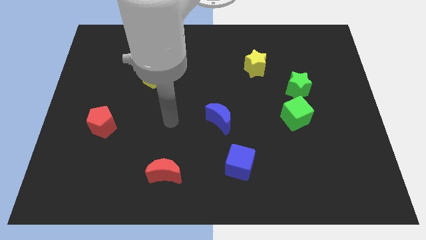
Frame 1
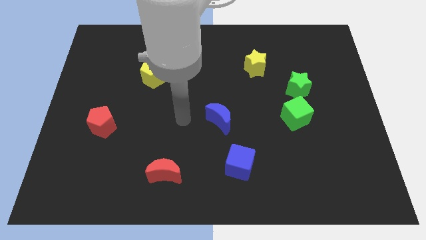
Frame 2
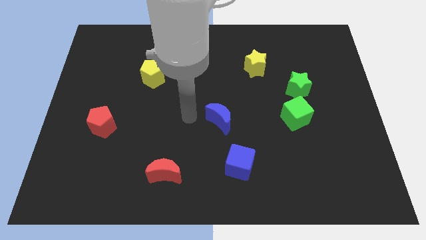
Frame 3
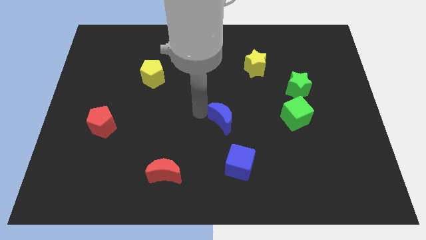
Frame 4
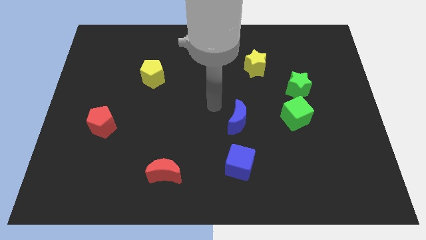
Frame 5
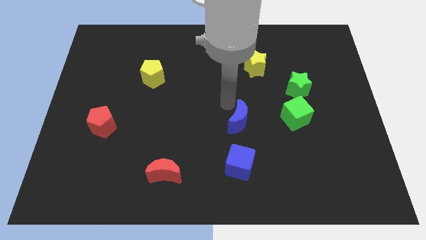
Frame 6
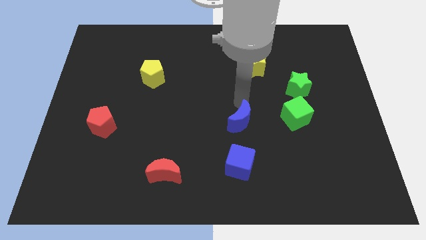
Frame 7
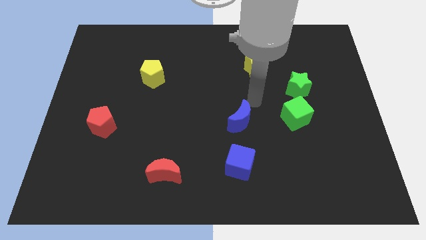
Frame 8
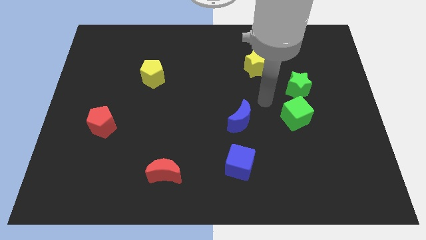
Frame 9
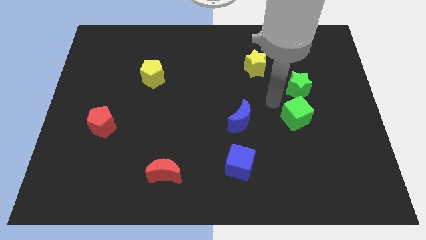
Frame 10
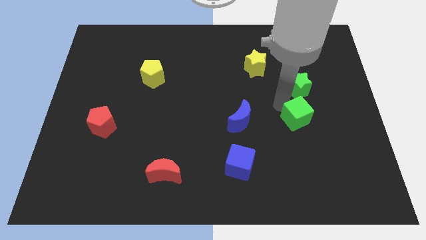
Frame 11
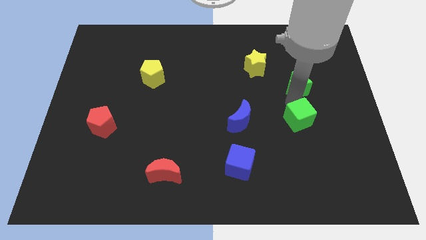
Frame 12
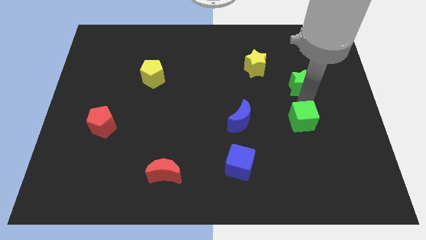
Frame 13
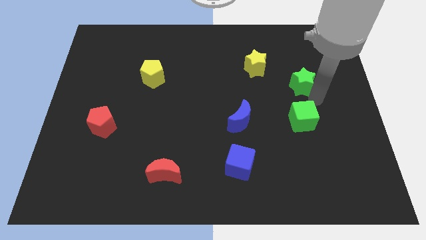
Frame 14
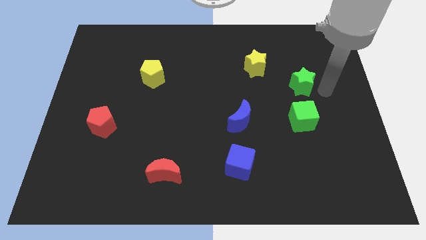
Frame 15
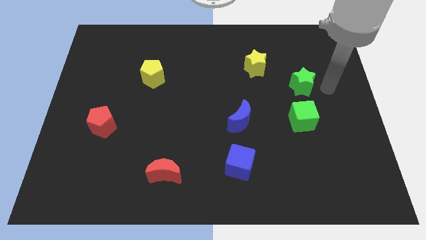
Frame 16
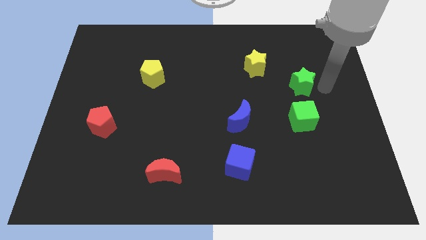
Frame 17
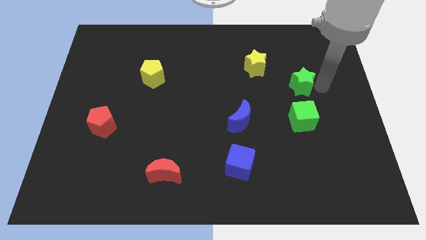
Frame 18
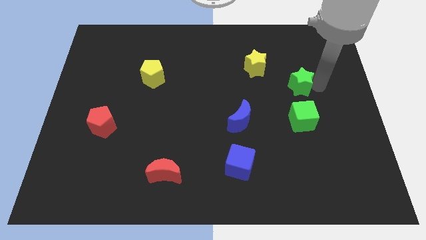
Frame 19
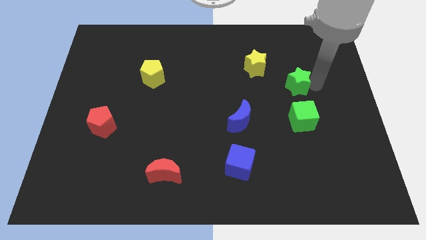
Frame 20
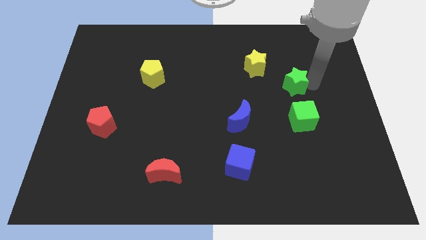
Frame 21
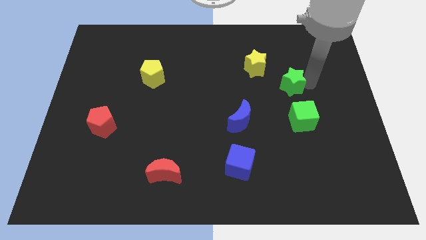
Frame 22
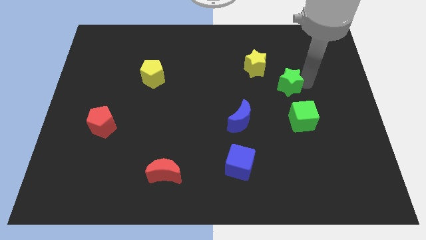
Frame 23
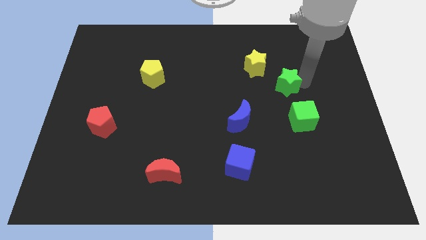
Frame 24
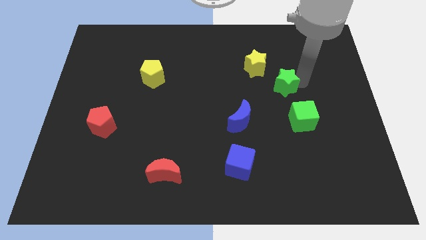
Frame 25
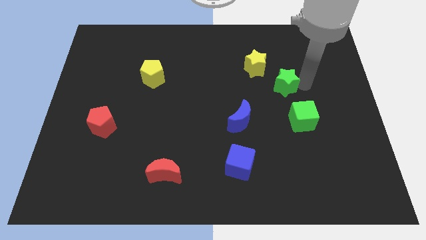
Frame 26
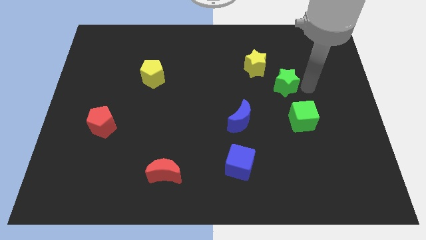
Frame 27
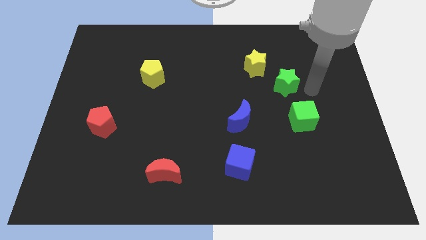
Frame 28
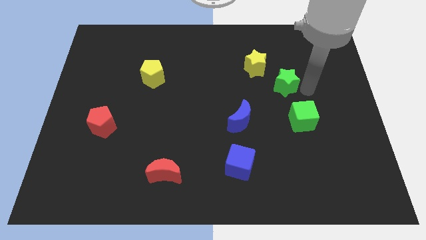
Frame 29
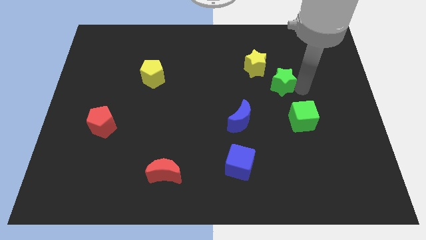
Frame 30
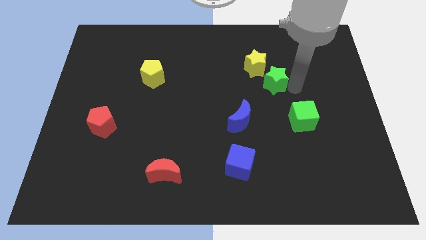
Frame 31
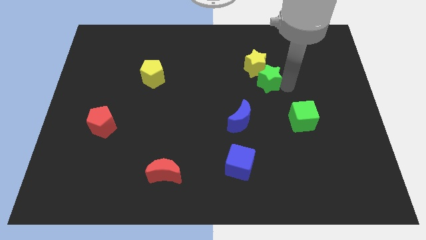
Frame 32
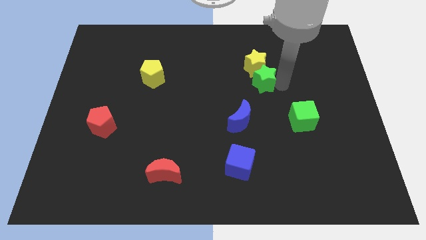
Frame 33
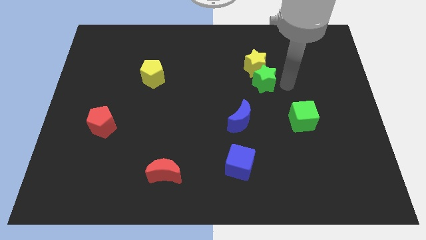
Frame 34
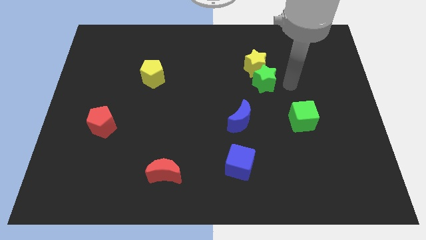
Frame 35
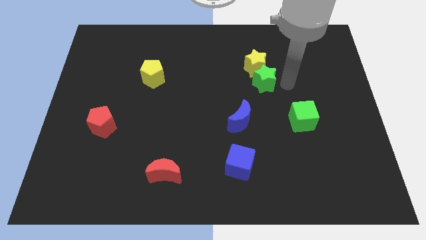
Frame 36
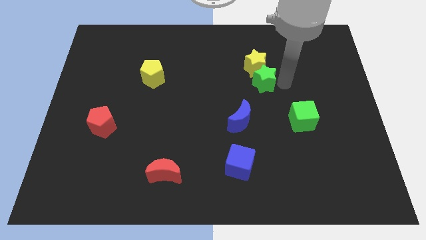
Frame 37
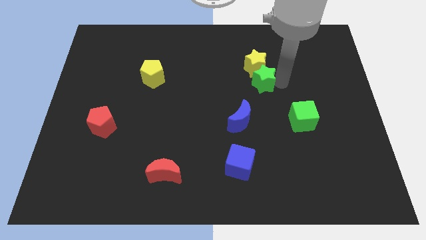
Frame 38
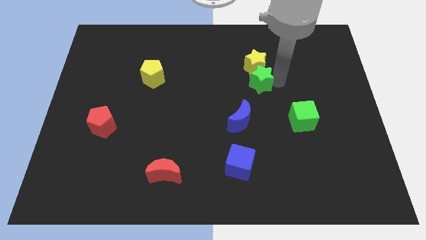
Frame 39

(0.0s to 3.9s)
slide the green star diagonally down and to the left of the yellow star

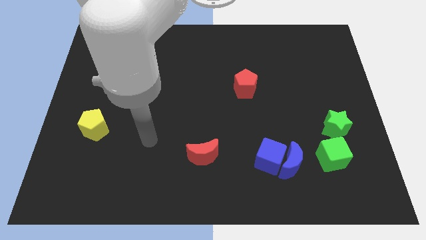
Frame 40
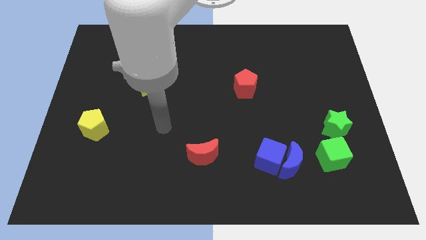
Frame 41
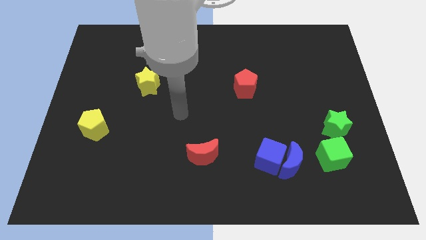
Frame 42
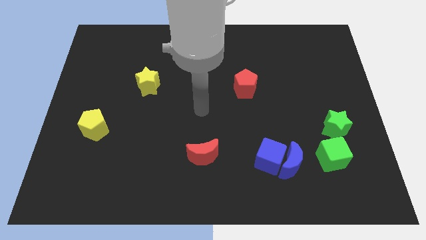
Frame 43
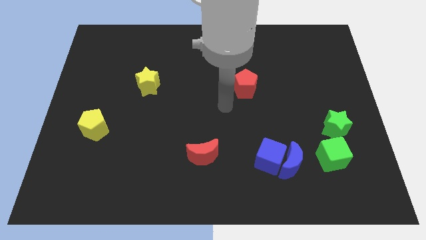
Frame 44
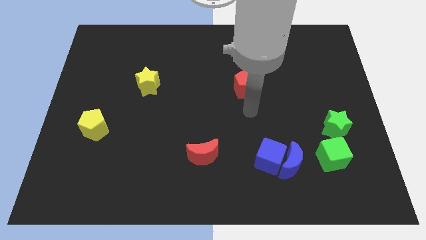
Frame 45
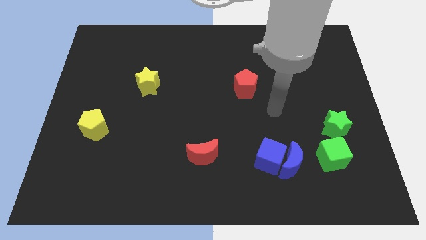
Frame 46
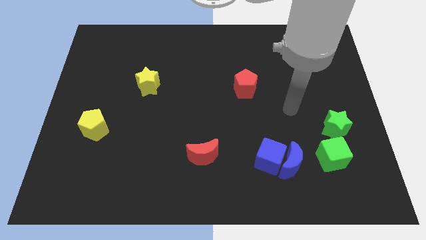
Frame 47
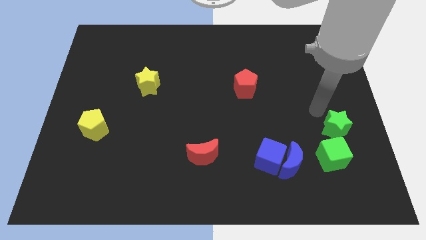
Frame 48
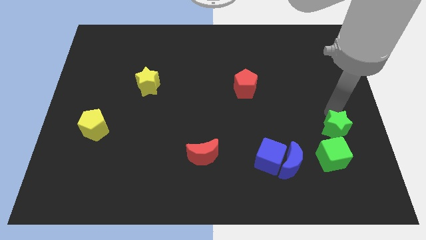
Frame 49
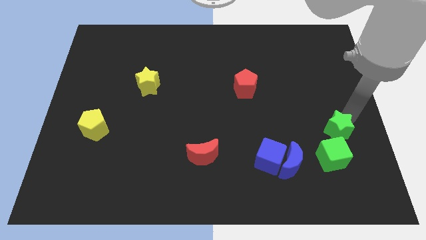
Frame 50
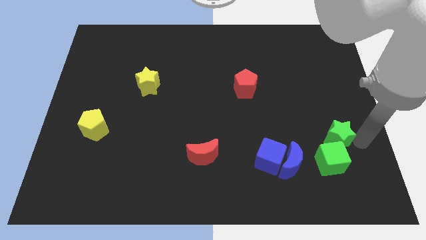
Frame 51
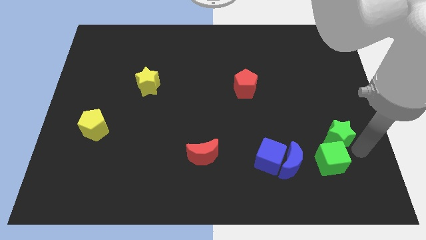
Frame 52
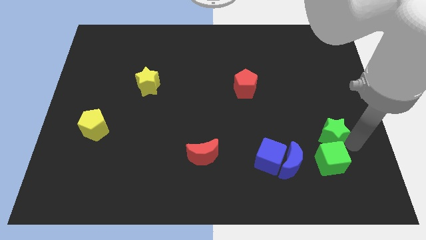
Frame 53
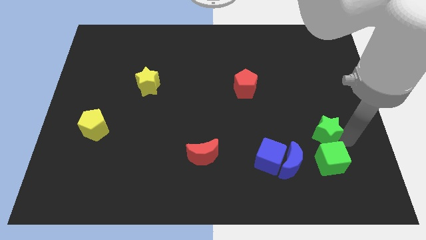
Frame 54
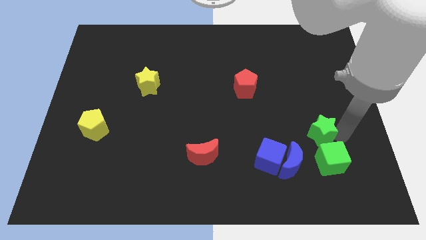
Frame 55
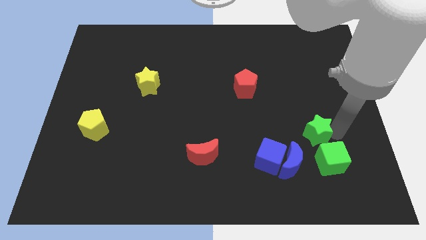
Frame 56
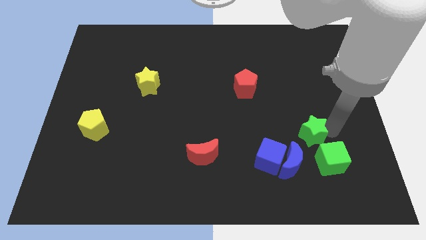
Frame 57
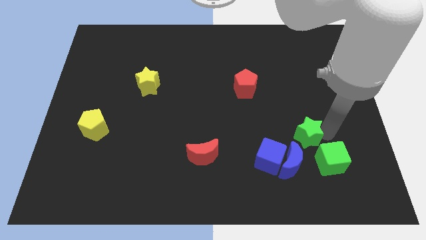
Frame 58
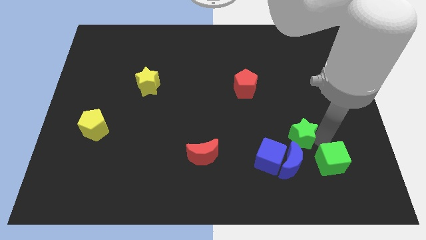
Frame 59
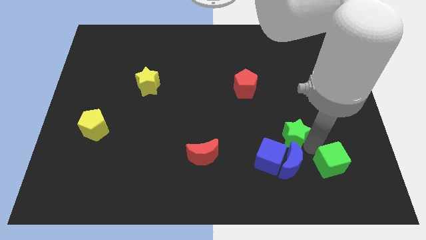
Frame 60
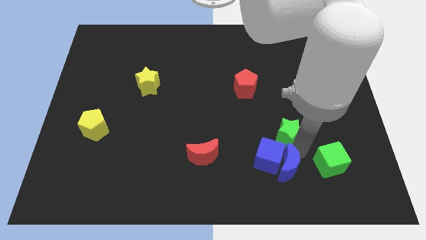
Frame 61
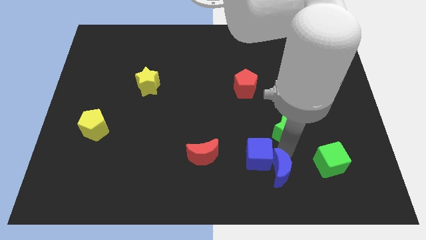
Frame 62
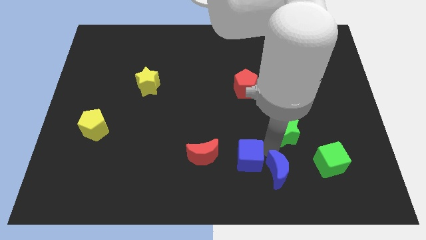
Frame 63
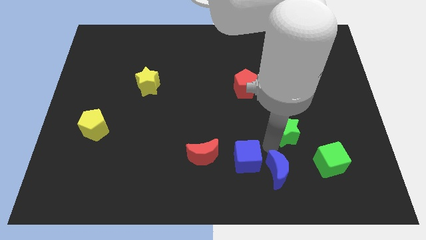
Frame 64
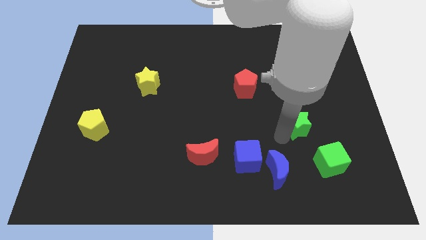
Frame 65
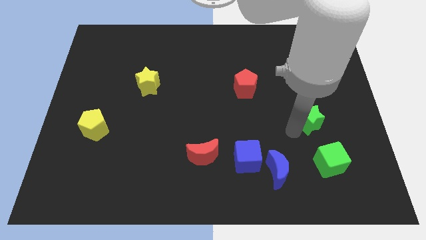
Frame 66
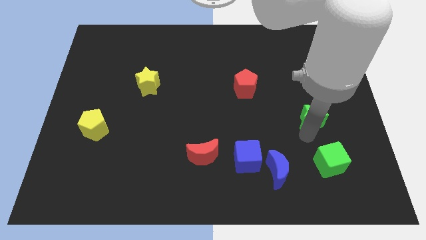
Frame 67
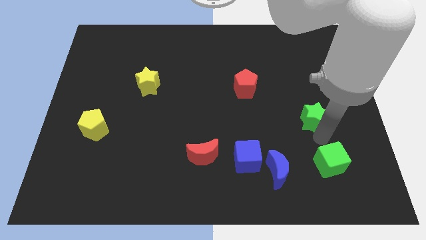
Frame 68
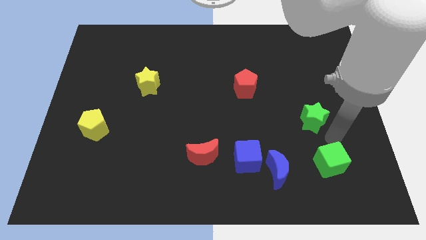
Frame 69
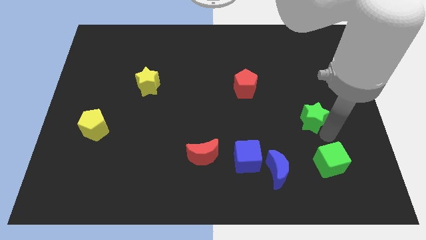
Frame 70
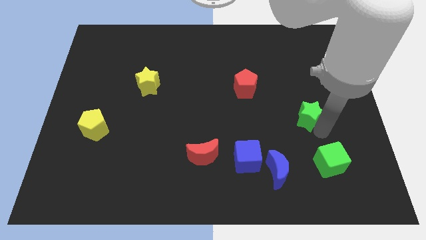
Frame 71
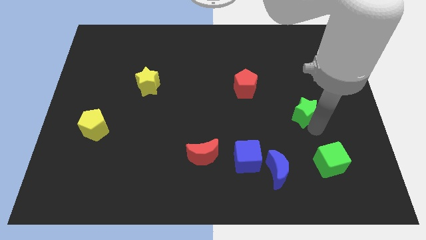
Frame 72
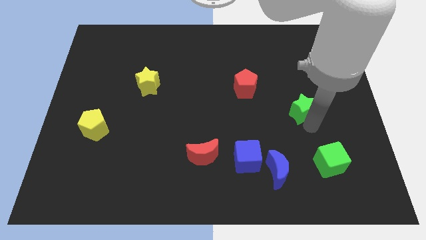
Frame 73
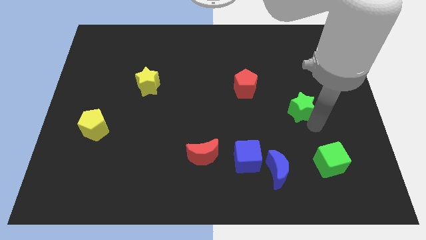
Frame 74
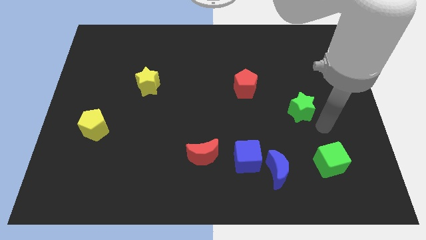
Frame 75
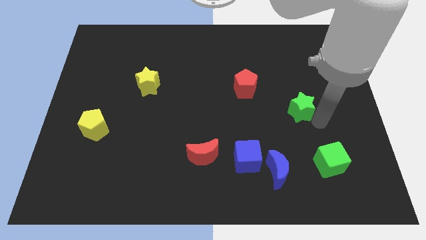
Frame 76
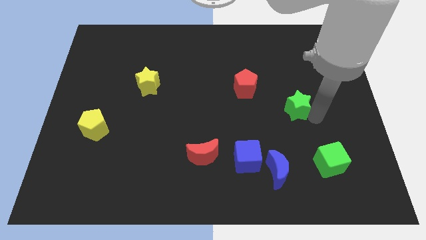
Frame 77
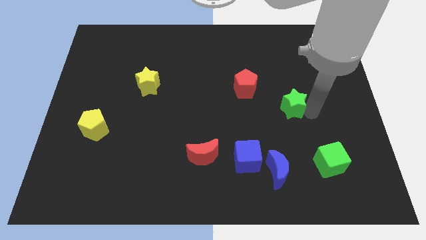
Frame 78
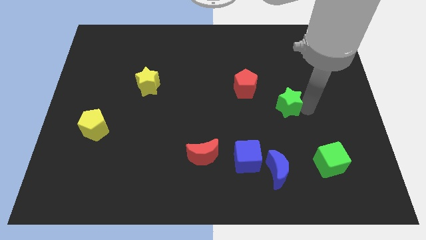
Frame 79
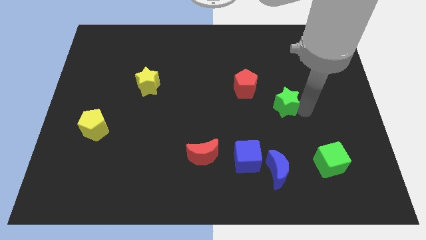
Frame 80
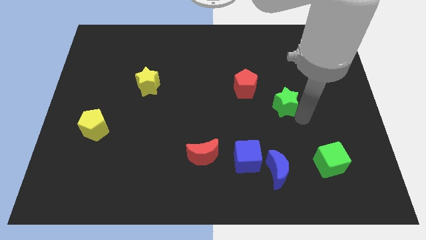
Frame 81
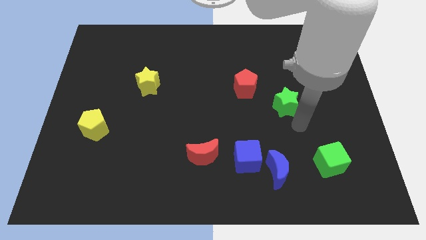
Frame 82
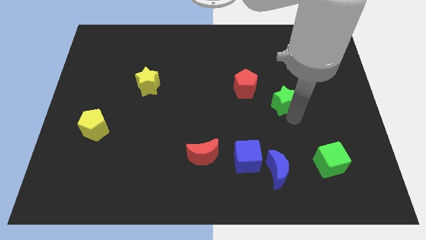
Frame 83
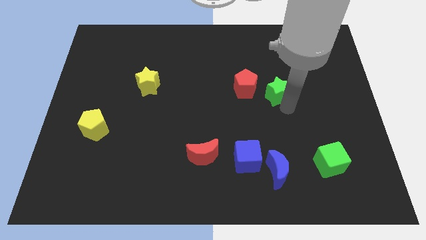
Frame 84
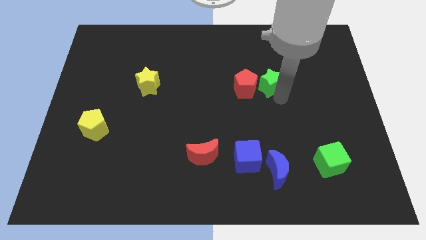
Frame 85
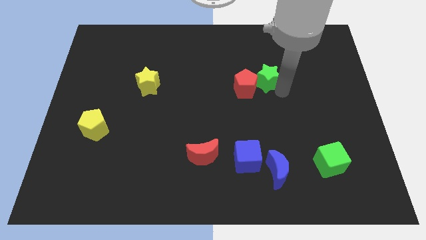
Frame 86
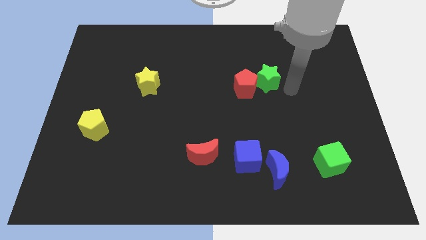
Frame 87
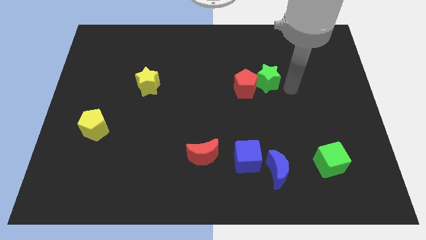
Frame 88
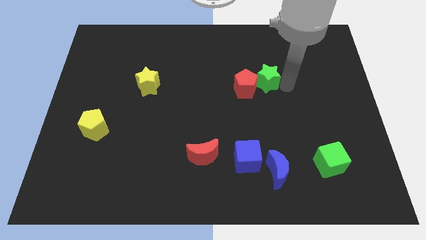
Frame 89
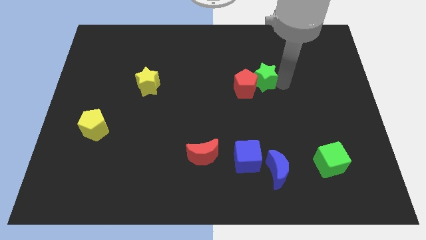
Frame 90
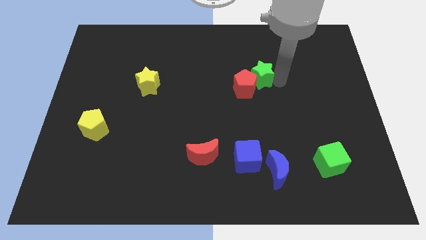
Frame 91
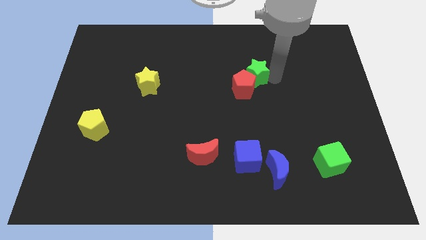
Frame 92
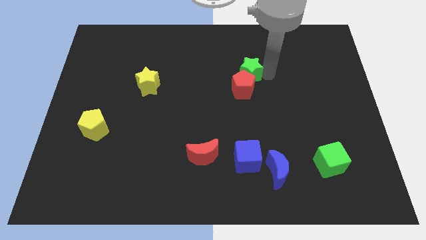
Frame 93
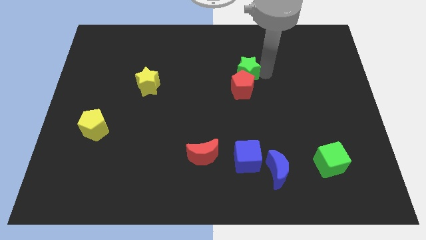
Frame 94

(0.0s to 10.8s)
slide the green star diagonally up and to the left of the red pentagon
